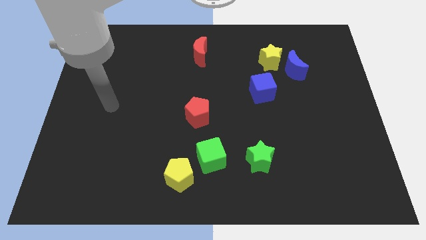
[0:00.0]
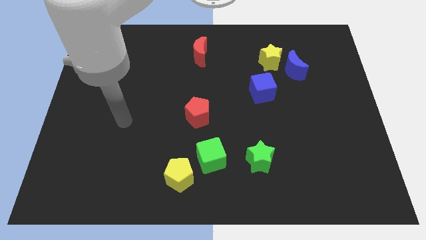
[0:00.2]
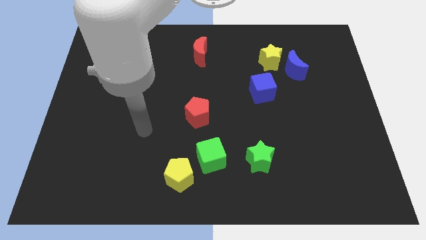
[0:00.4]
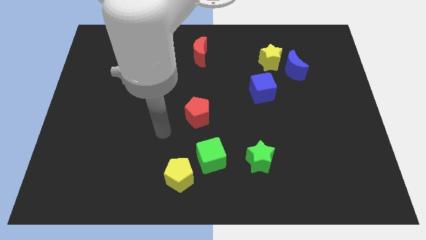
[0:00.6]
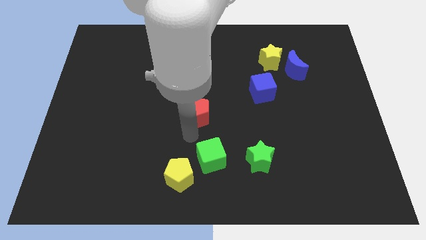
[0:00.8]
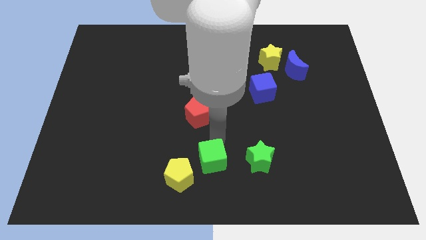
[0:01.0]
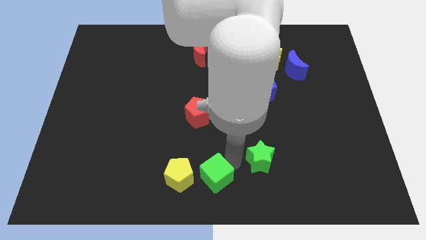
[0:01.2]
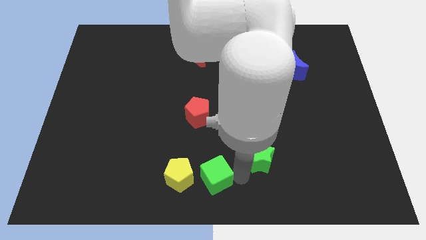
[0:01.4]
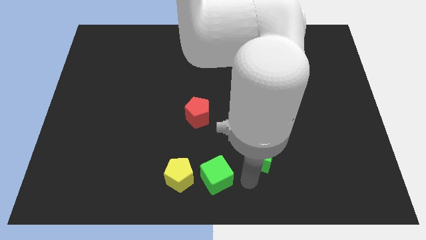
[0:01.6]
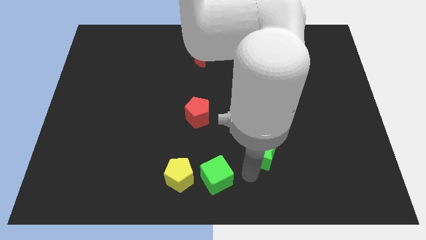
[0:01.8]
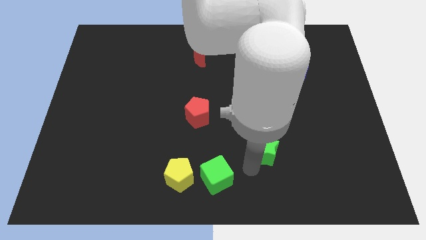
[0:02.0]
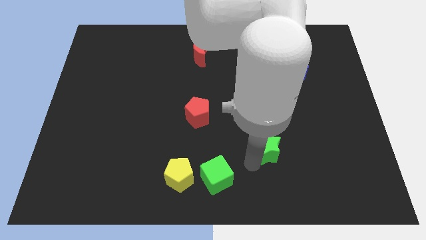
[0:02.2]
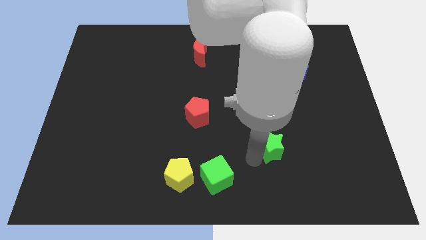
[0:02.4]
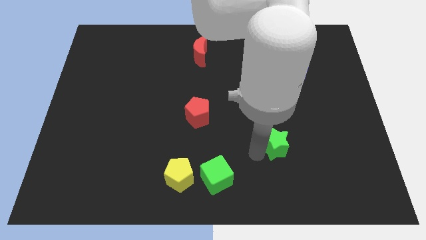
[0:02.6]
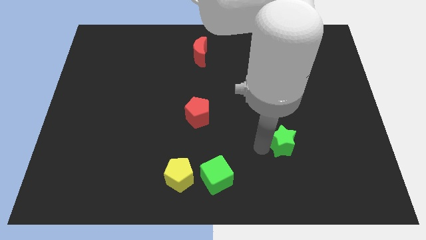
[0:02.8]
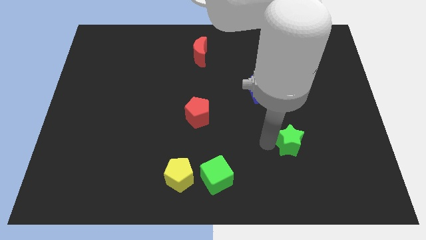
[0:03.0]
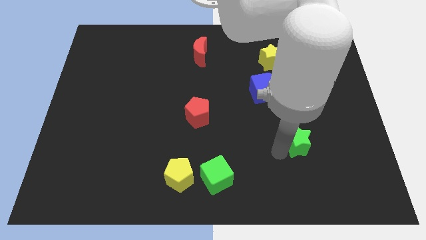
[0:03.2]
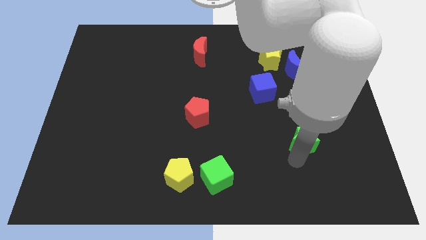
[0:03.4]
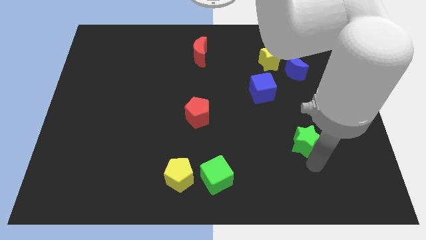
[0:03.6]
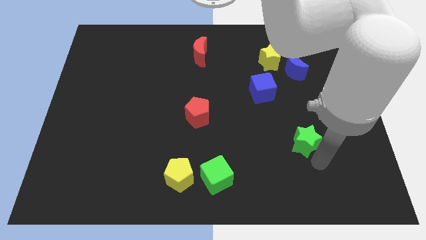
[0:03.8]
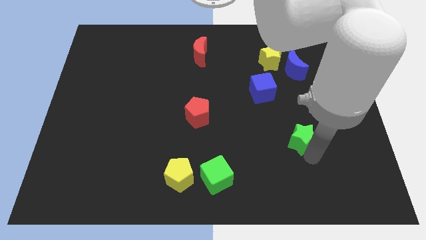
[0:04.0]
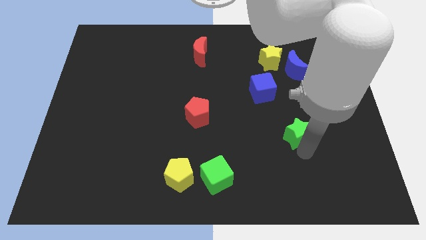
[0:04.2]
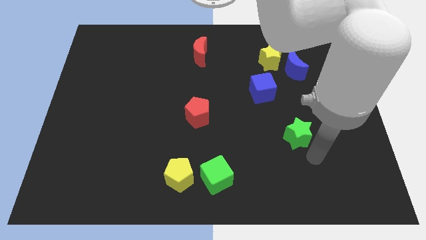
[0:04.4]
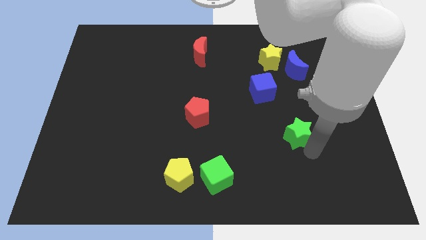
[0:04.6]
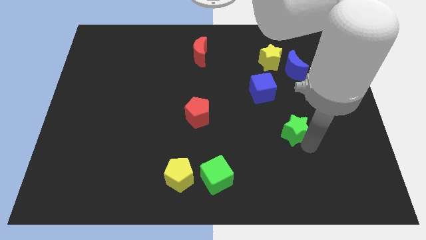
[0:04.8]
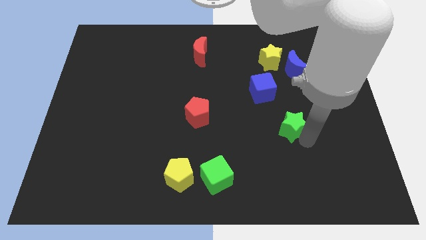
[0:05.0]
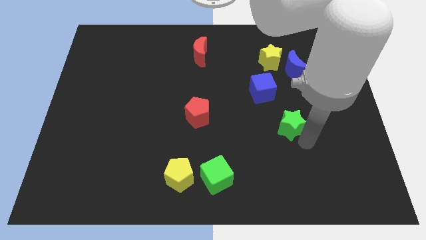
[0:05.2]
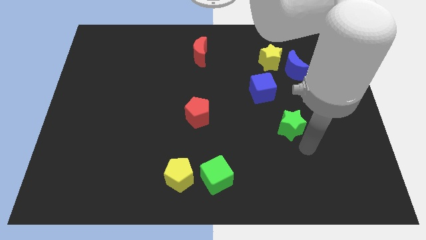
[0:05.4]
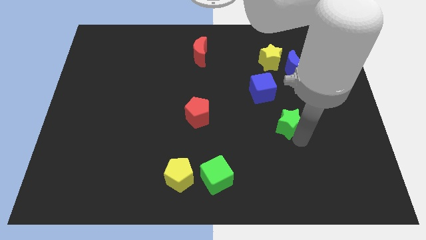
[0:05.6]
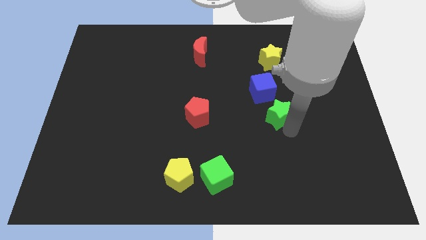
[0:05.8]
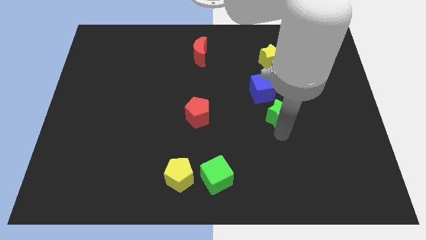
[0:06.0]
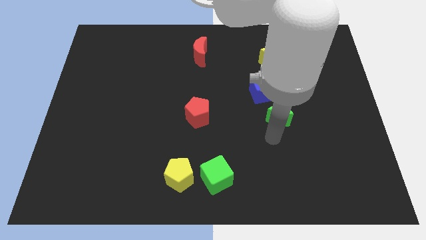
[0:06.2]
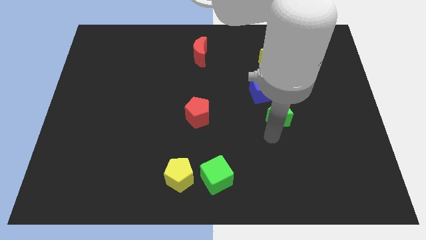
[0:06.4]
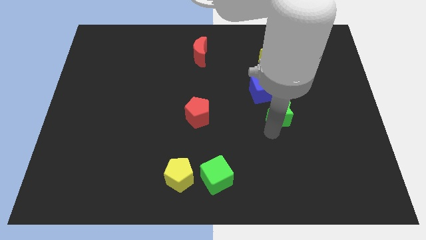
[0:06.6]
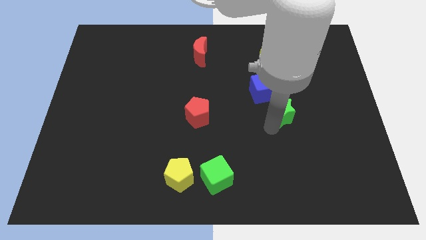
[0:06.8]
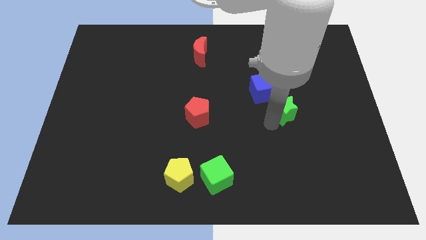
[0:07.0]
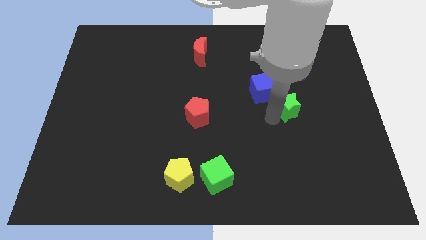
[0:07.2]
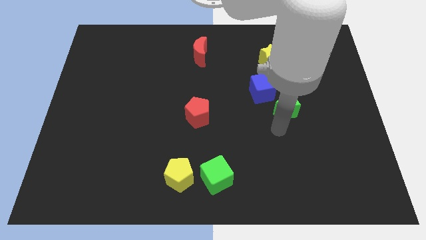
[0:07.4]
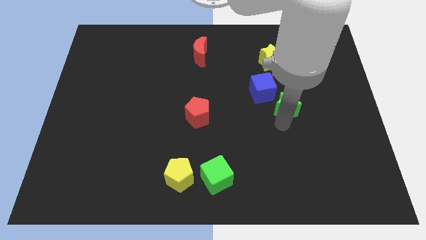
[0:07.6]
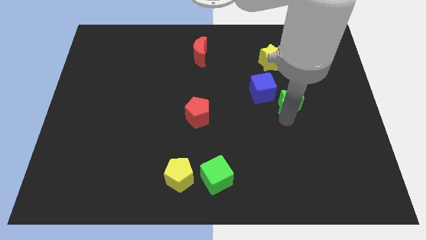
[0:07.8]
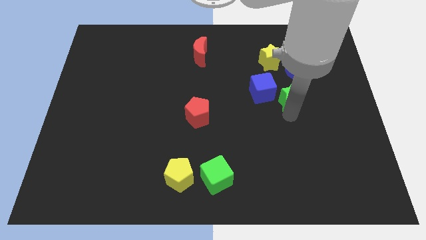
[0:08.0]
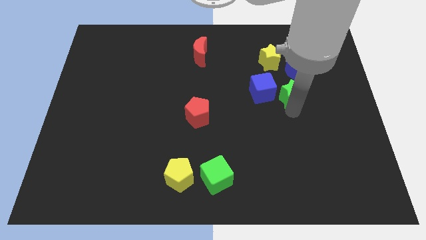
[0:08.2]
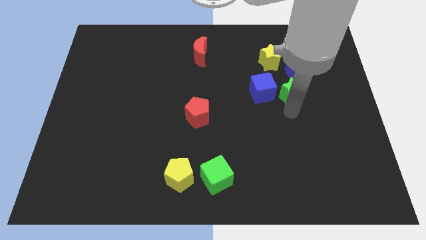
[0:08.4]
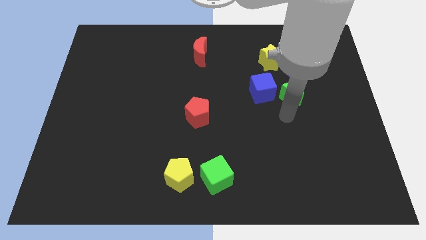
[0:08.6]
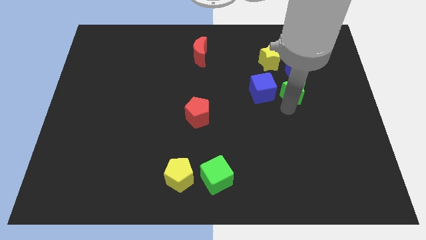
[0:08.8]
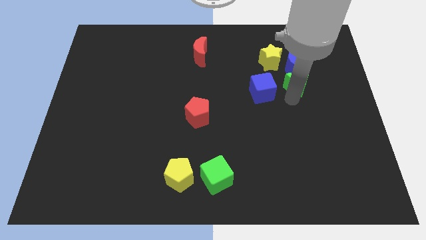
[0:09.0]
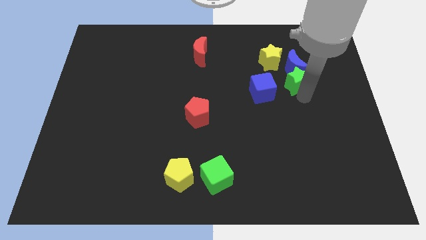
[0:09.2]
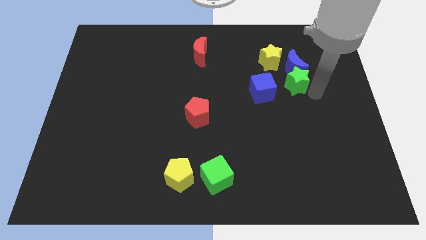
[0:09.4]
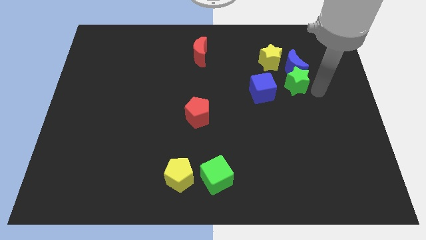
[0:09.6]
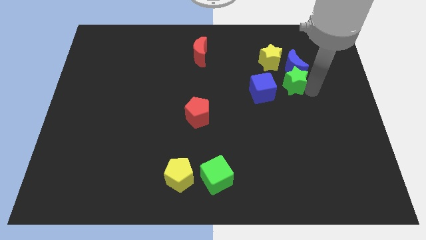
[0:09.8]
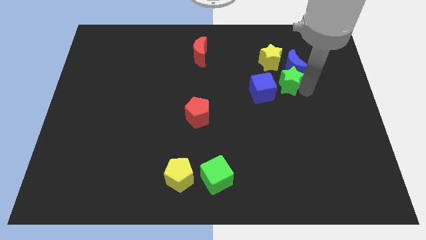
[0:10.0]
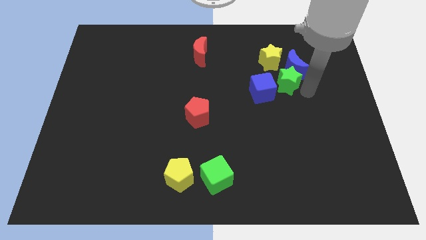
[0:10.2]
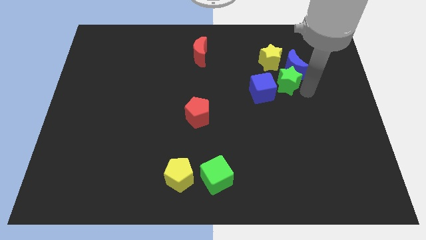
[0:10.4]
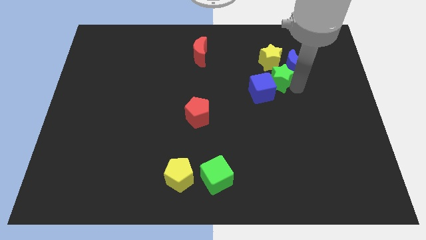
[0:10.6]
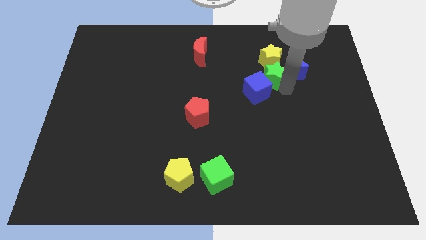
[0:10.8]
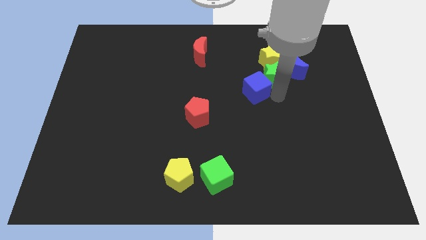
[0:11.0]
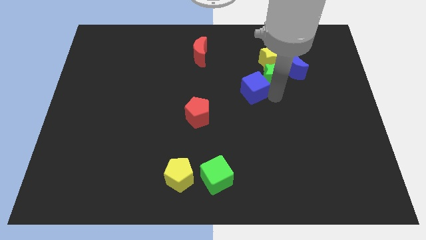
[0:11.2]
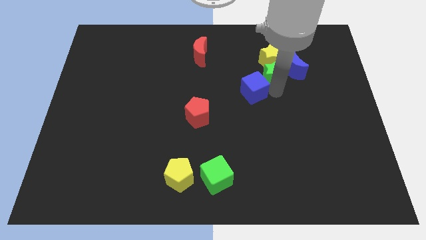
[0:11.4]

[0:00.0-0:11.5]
slide the green star towards the yellow star

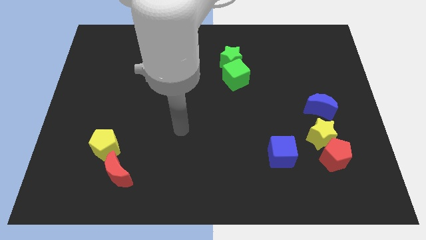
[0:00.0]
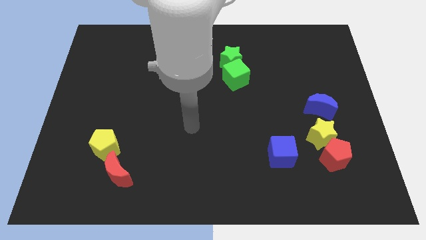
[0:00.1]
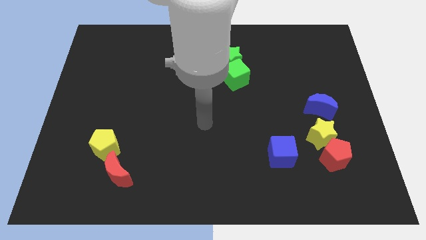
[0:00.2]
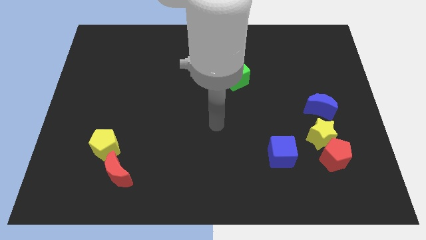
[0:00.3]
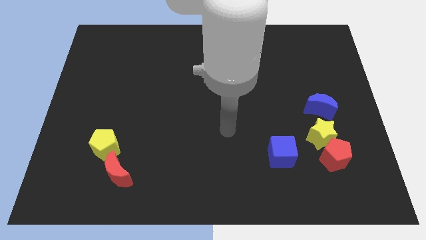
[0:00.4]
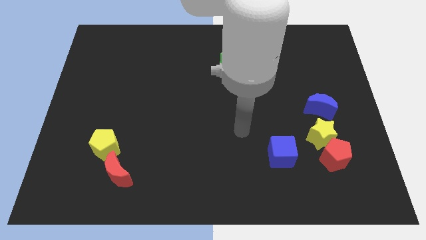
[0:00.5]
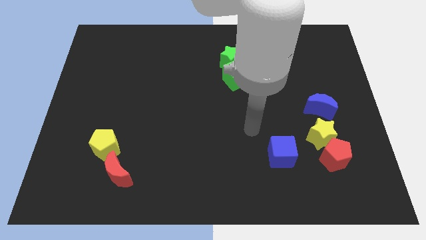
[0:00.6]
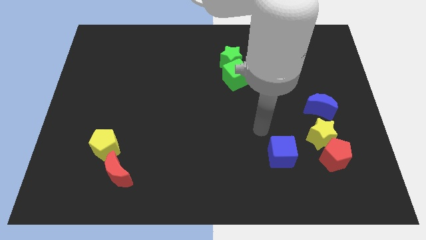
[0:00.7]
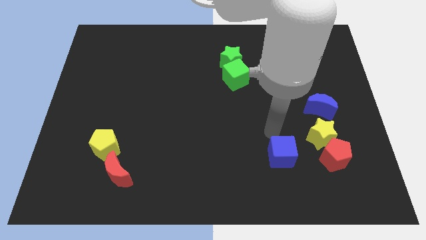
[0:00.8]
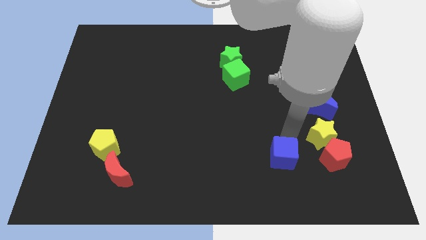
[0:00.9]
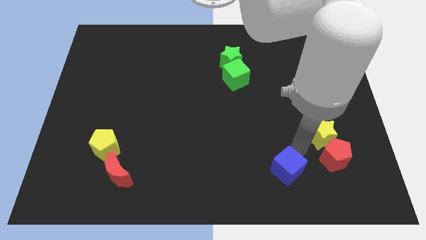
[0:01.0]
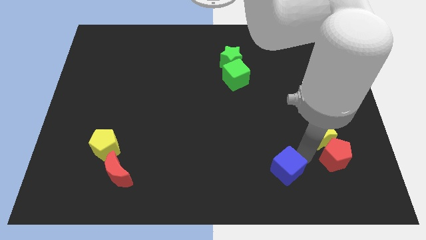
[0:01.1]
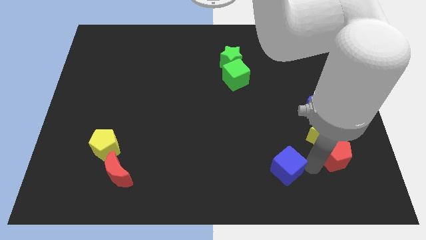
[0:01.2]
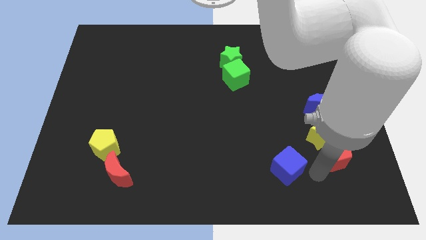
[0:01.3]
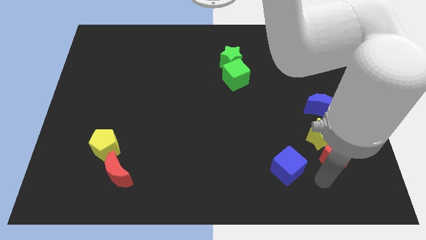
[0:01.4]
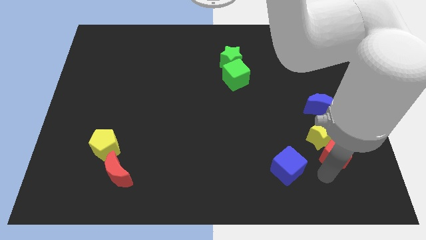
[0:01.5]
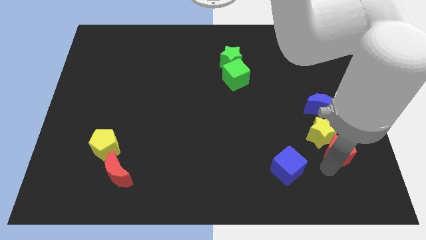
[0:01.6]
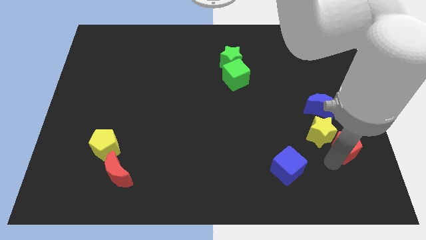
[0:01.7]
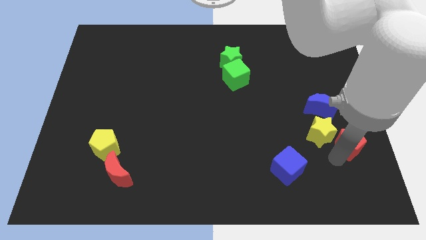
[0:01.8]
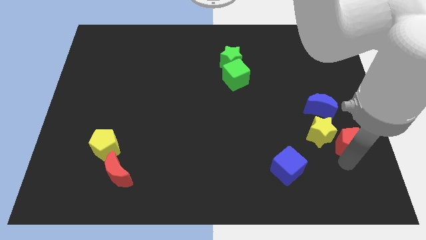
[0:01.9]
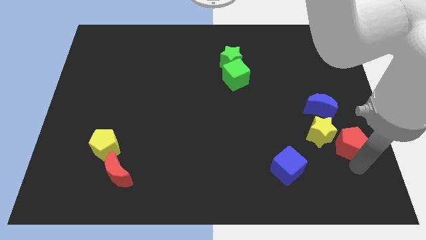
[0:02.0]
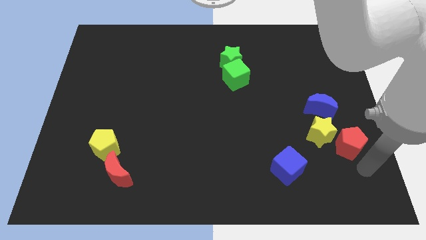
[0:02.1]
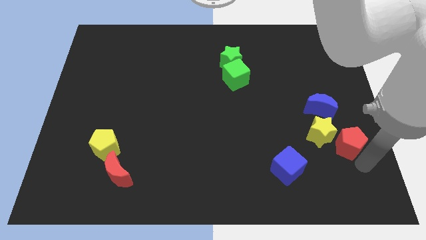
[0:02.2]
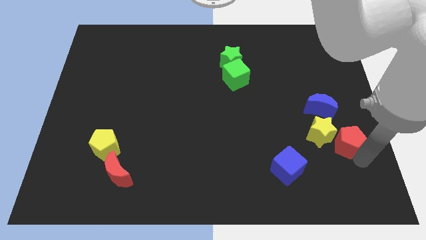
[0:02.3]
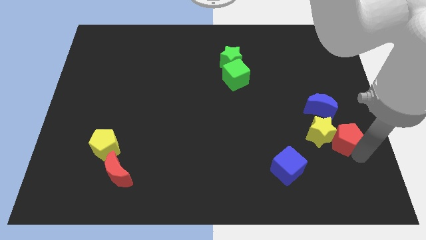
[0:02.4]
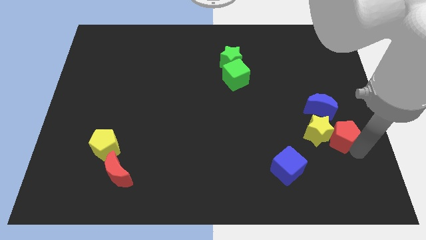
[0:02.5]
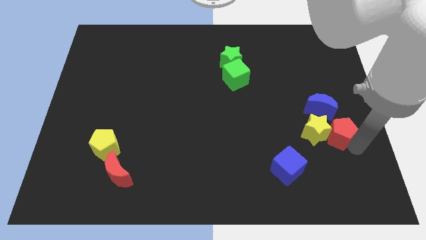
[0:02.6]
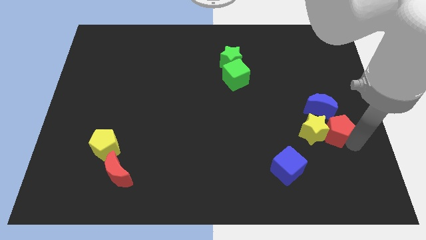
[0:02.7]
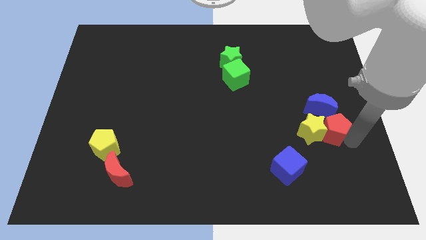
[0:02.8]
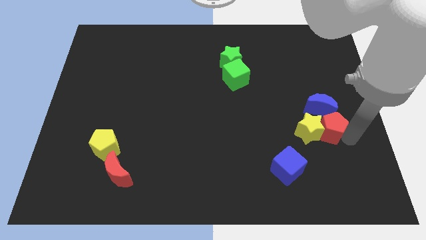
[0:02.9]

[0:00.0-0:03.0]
move the red pentagon towards the blue moon
